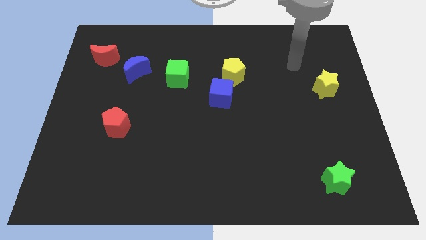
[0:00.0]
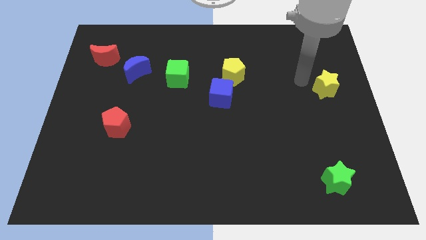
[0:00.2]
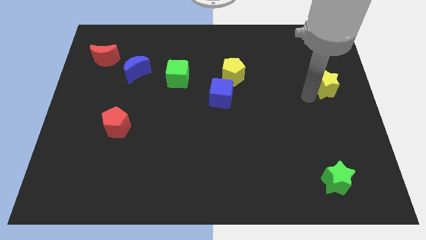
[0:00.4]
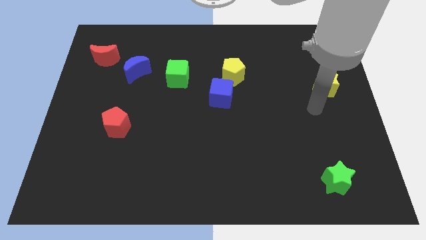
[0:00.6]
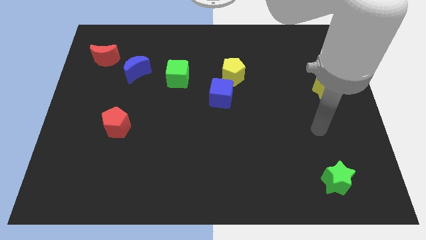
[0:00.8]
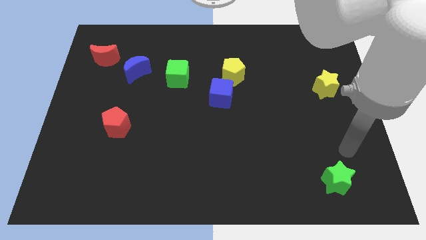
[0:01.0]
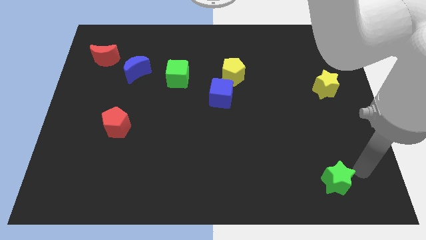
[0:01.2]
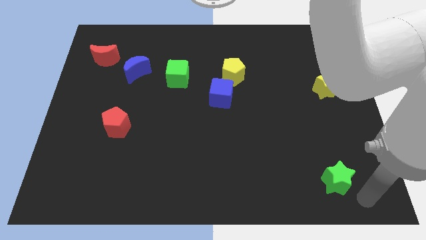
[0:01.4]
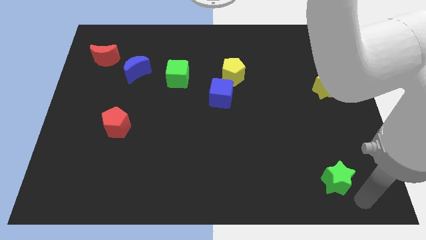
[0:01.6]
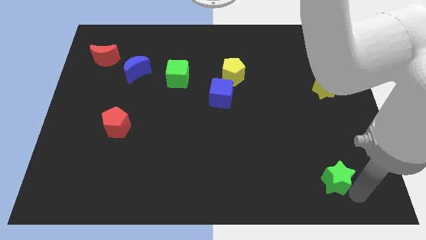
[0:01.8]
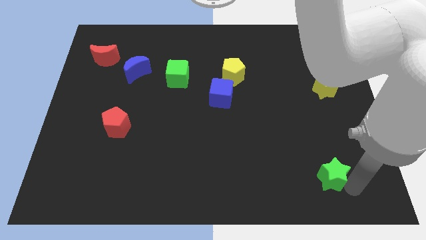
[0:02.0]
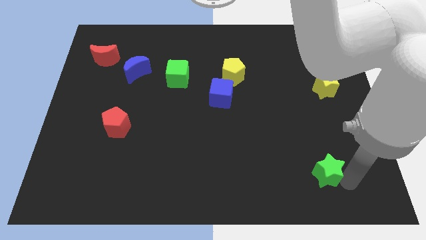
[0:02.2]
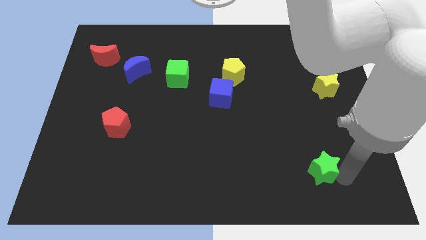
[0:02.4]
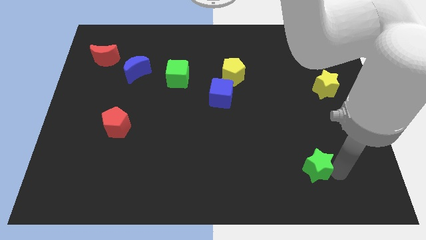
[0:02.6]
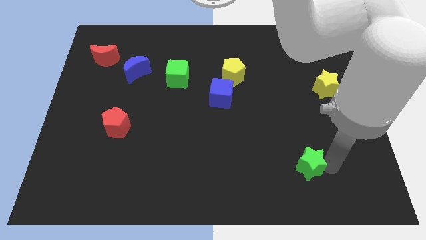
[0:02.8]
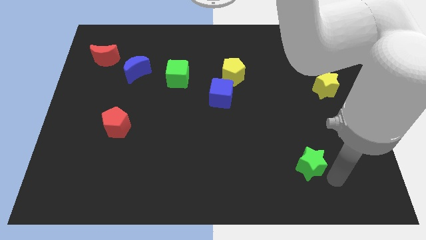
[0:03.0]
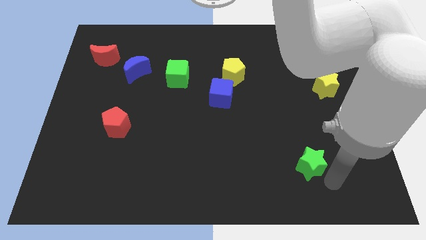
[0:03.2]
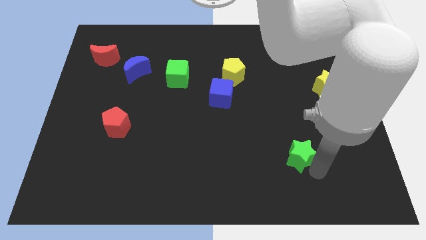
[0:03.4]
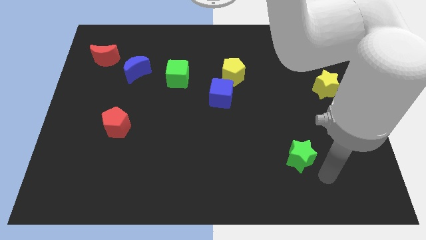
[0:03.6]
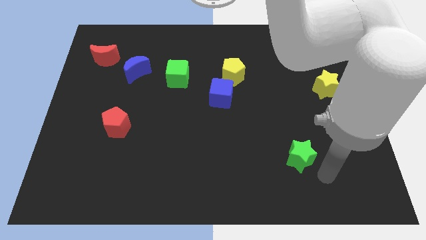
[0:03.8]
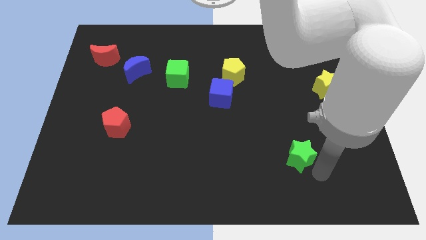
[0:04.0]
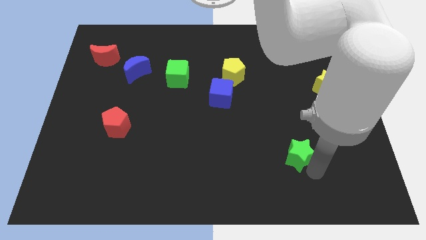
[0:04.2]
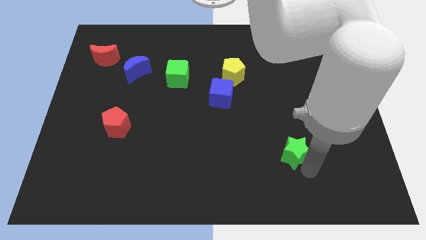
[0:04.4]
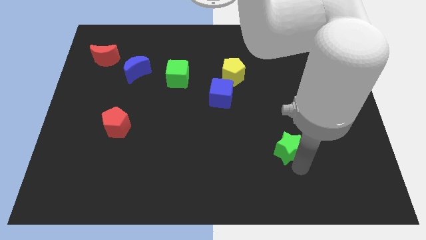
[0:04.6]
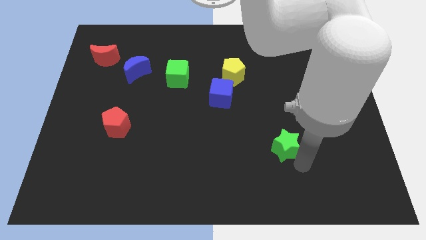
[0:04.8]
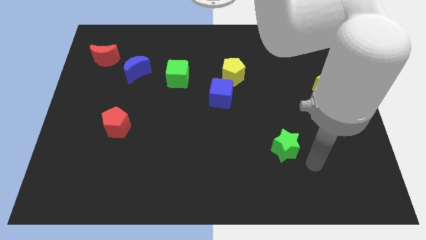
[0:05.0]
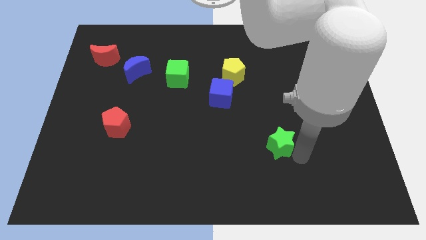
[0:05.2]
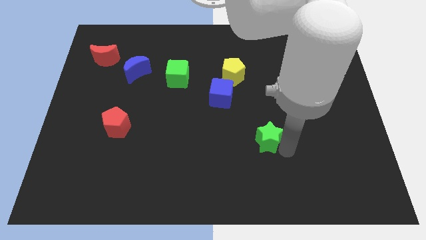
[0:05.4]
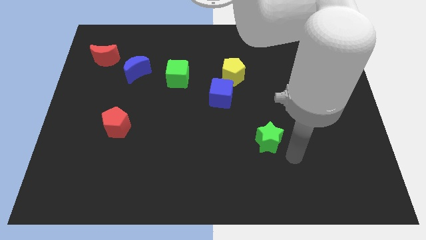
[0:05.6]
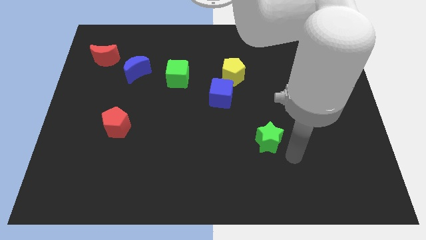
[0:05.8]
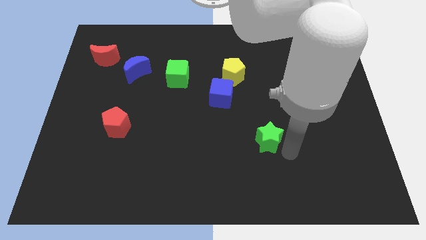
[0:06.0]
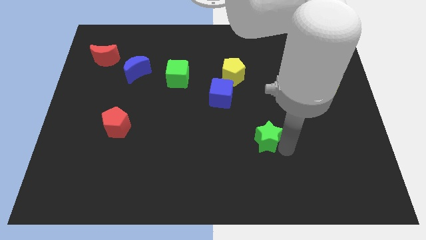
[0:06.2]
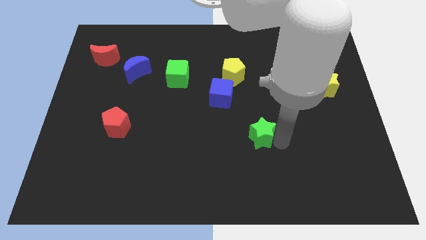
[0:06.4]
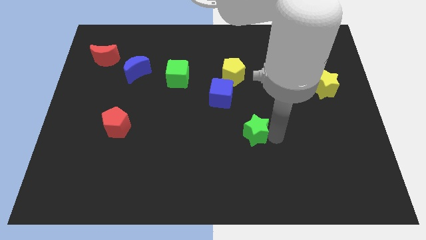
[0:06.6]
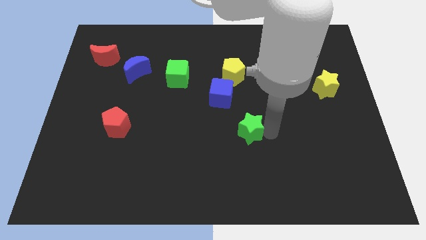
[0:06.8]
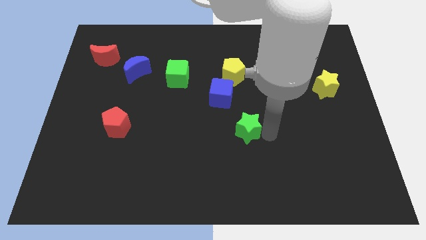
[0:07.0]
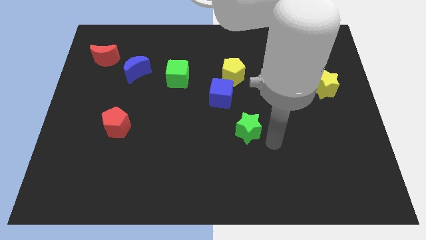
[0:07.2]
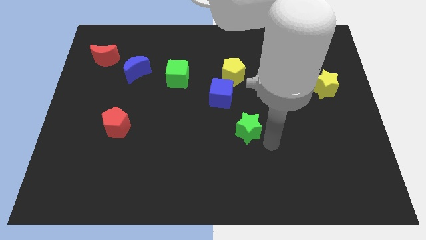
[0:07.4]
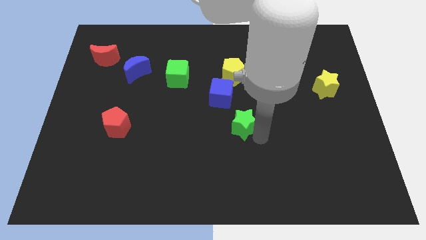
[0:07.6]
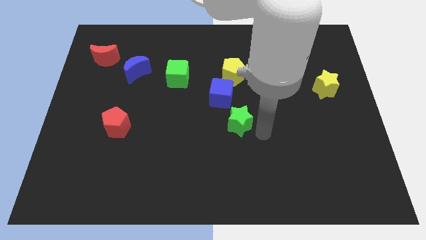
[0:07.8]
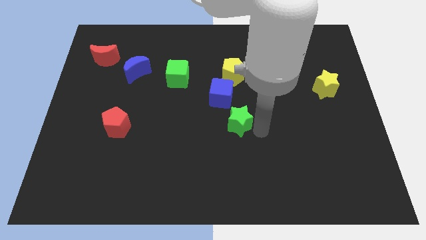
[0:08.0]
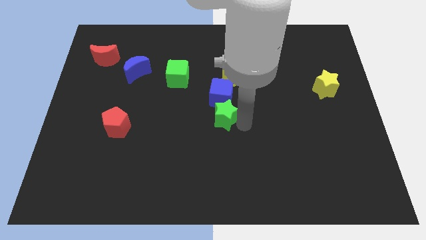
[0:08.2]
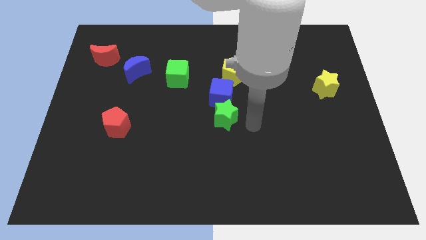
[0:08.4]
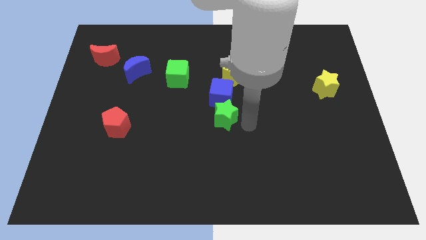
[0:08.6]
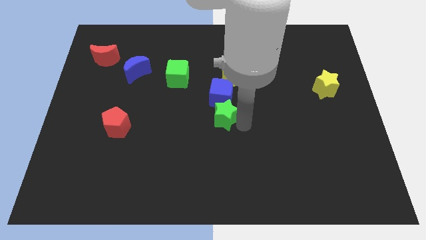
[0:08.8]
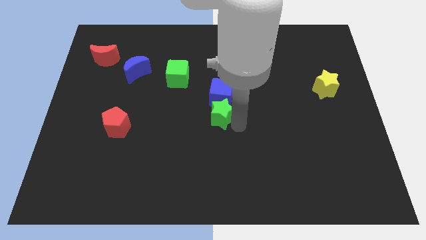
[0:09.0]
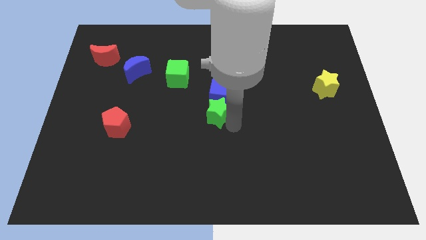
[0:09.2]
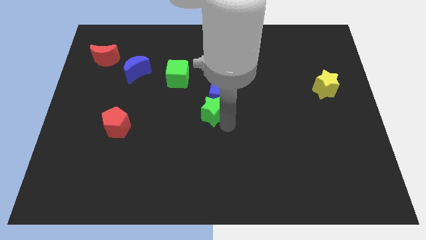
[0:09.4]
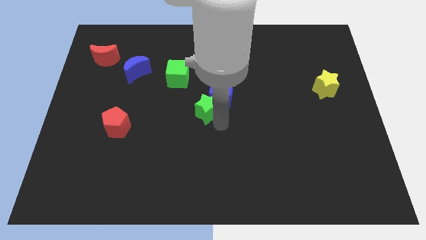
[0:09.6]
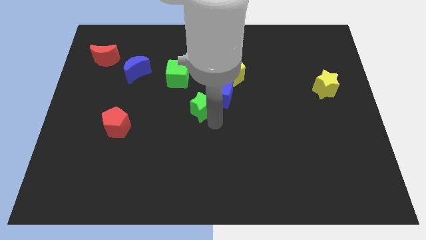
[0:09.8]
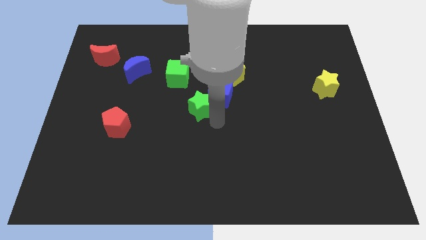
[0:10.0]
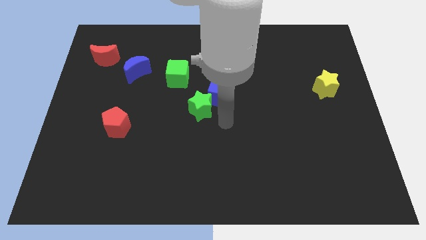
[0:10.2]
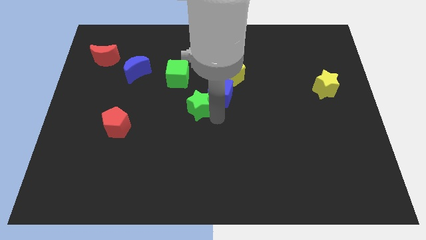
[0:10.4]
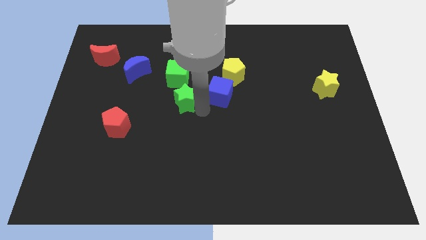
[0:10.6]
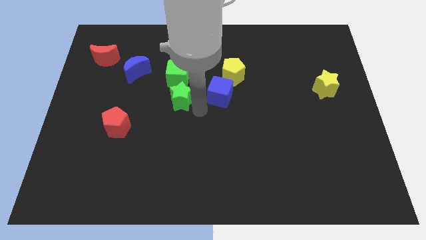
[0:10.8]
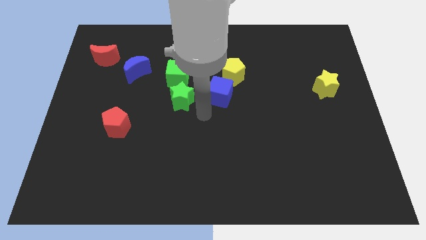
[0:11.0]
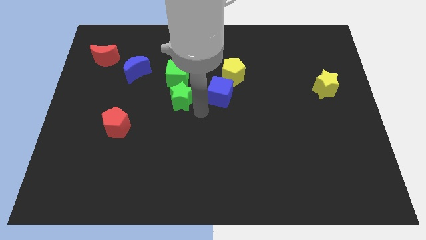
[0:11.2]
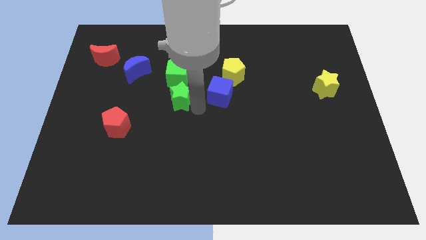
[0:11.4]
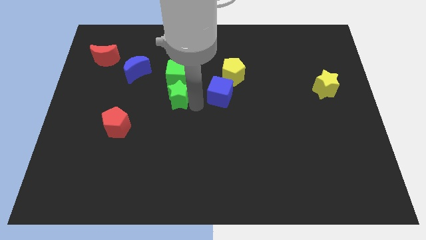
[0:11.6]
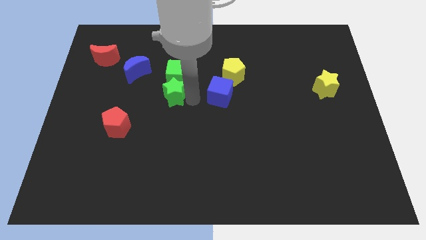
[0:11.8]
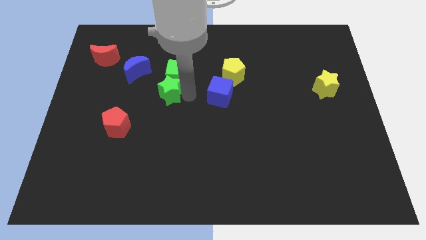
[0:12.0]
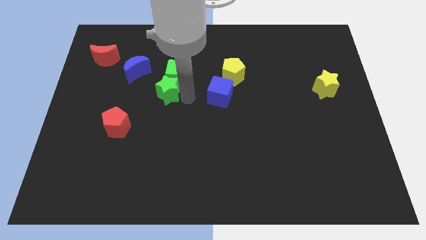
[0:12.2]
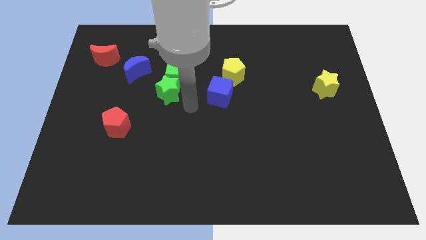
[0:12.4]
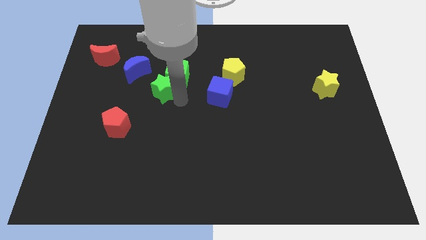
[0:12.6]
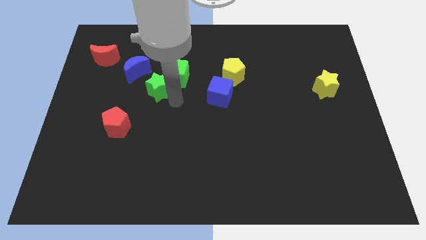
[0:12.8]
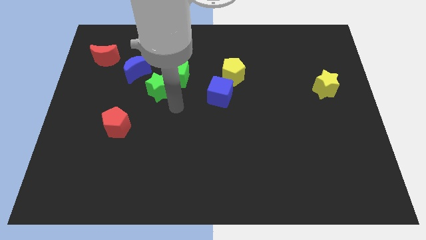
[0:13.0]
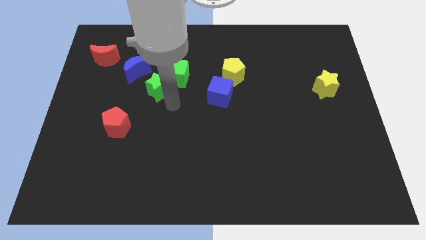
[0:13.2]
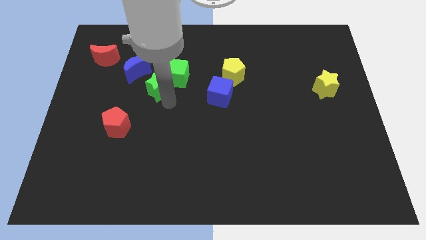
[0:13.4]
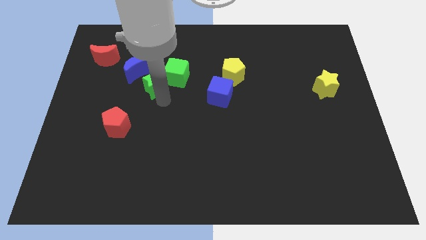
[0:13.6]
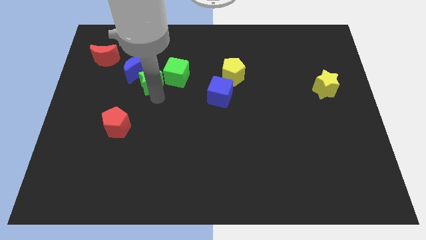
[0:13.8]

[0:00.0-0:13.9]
push the green star towards the blue moon
